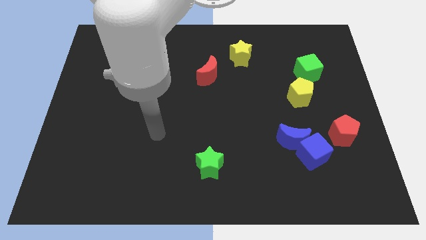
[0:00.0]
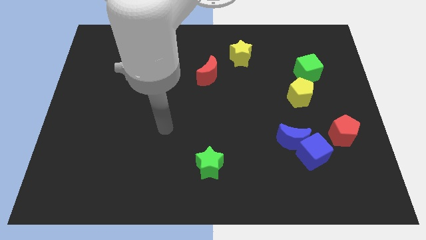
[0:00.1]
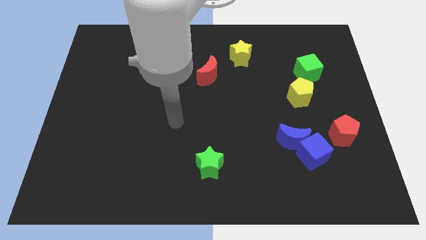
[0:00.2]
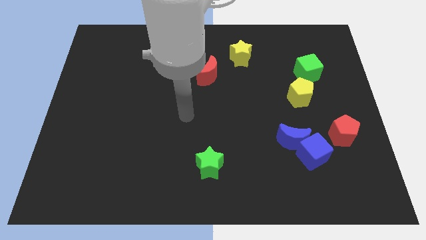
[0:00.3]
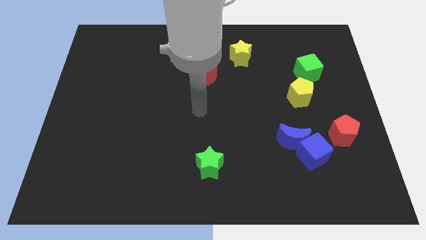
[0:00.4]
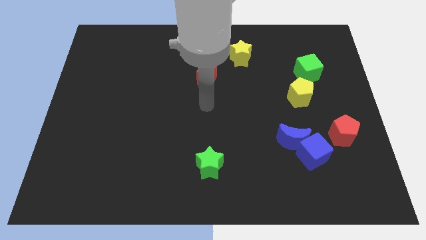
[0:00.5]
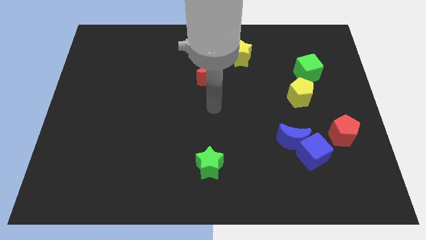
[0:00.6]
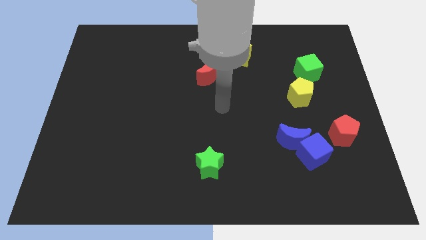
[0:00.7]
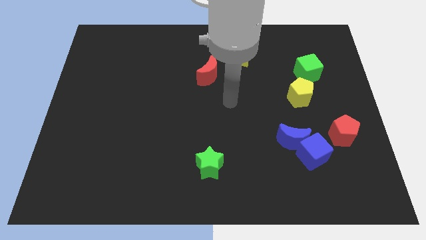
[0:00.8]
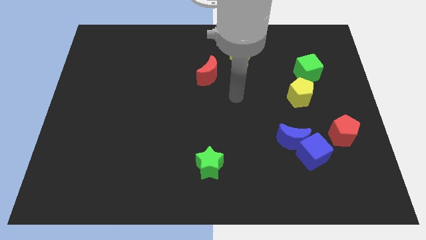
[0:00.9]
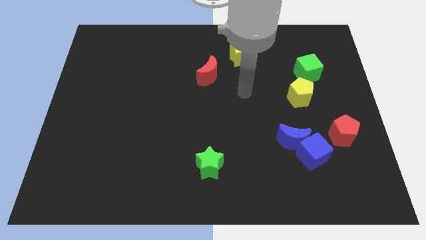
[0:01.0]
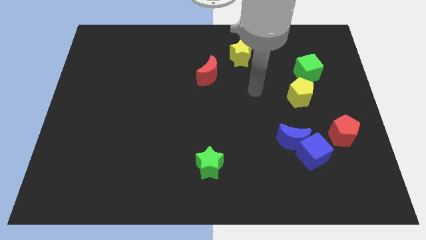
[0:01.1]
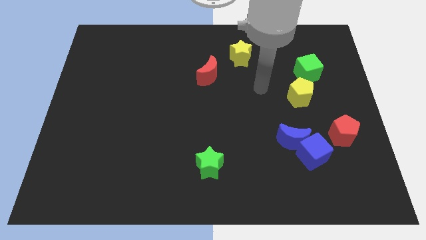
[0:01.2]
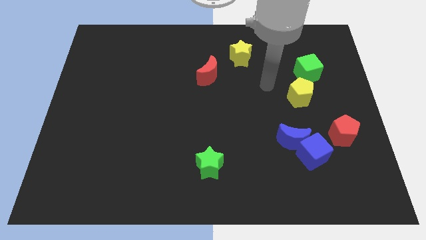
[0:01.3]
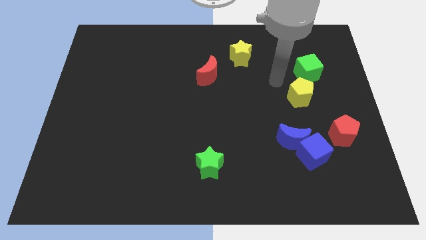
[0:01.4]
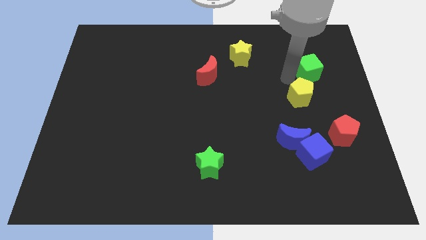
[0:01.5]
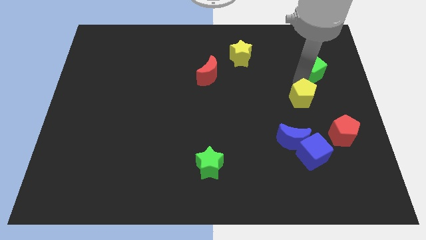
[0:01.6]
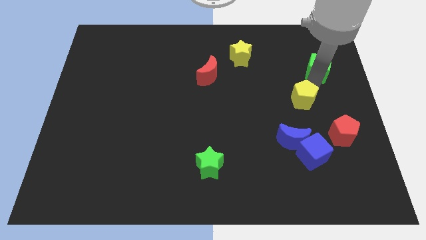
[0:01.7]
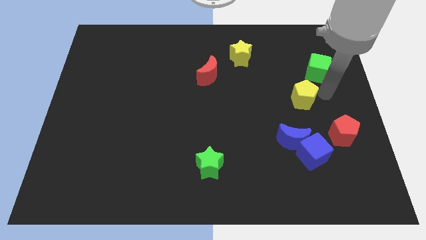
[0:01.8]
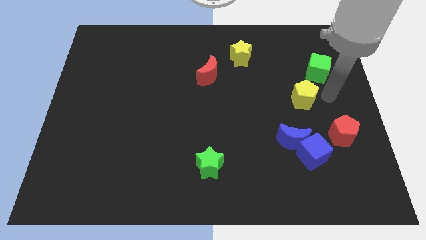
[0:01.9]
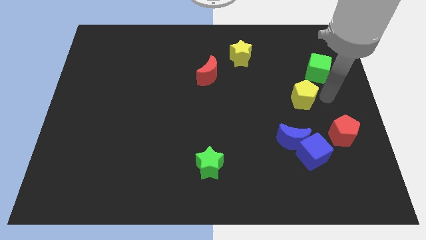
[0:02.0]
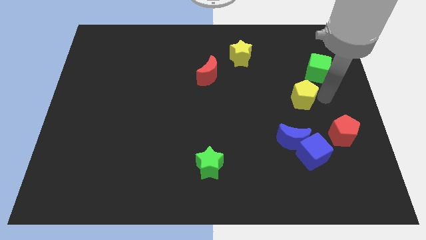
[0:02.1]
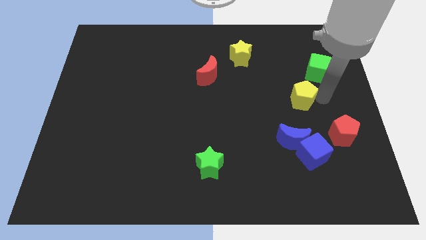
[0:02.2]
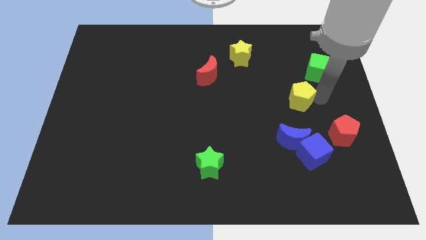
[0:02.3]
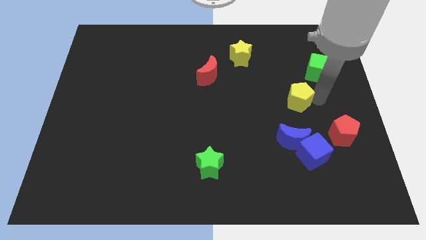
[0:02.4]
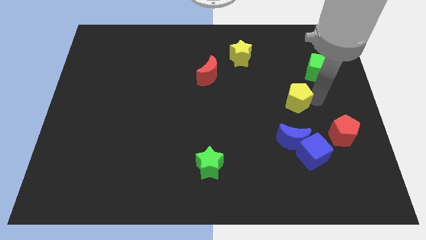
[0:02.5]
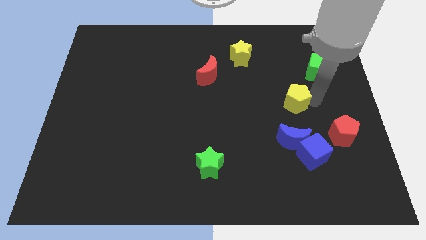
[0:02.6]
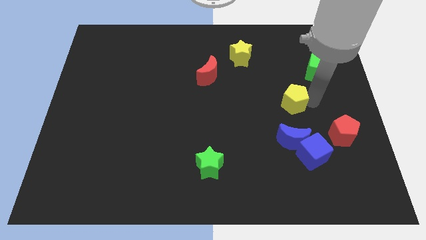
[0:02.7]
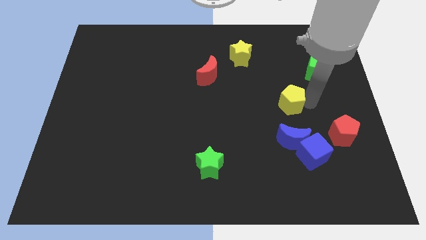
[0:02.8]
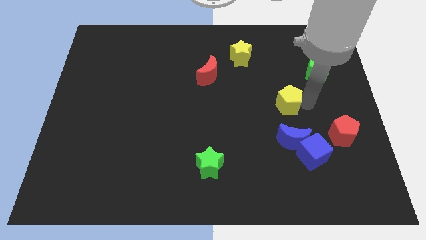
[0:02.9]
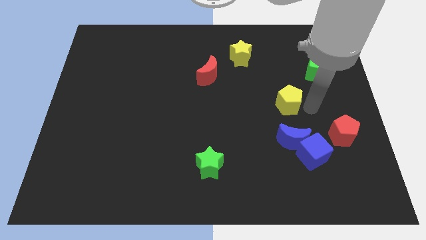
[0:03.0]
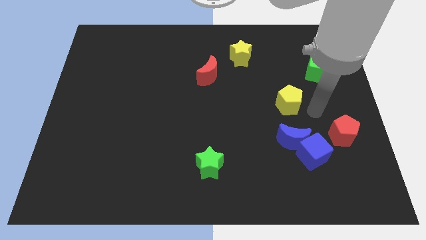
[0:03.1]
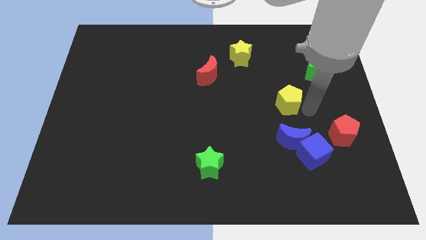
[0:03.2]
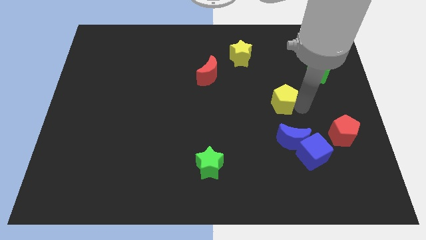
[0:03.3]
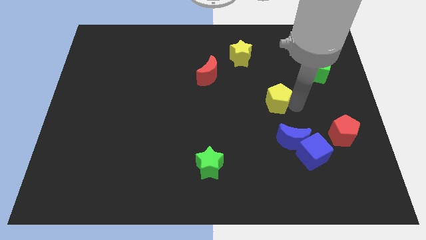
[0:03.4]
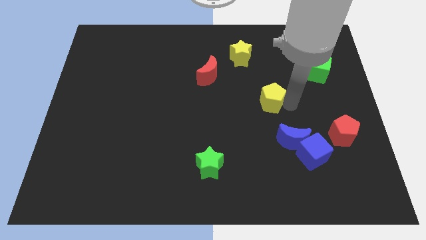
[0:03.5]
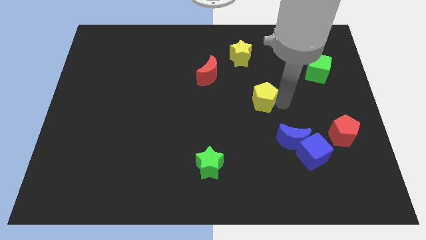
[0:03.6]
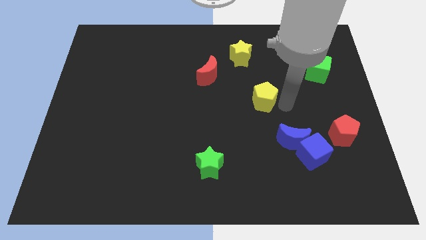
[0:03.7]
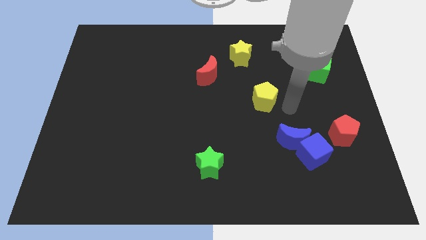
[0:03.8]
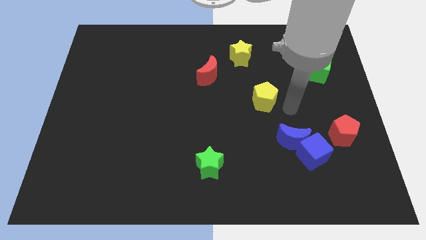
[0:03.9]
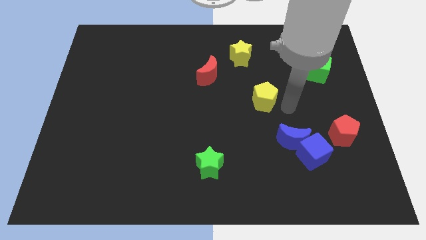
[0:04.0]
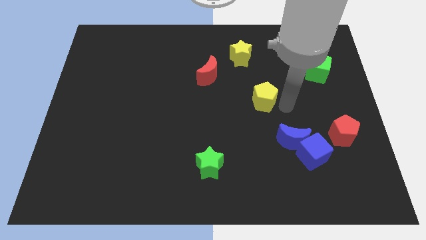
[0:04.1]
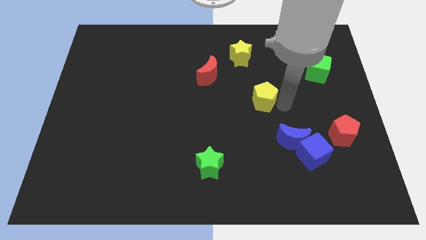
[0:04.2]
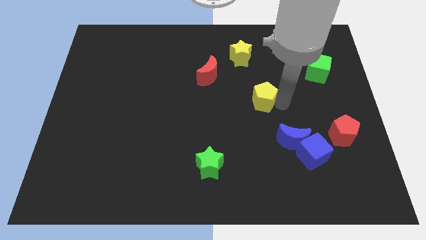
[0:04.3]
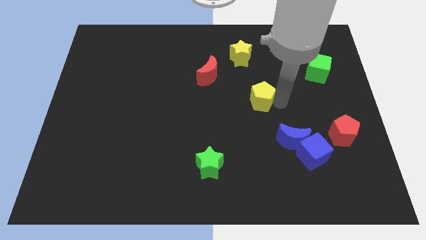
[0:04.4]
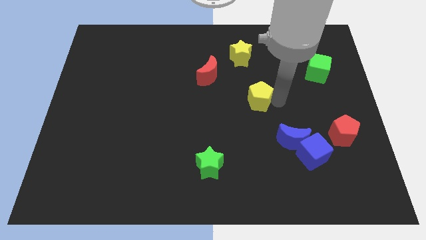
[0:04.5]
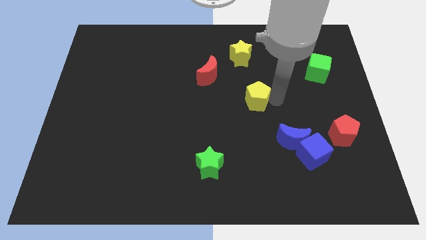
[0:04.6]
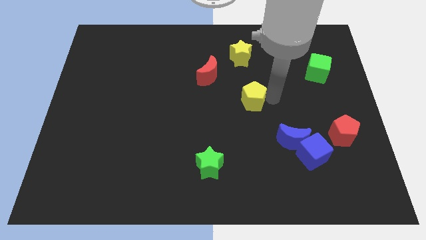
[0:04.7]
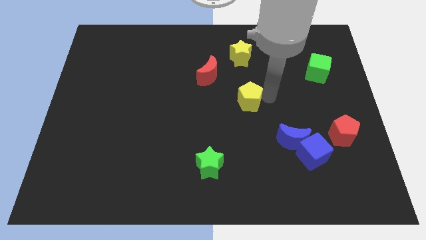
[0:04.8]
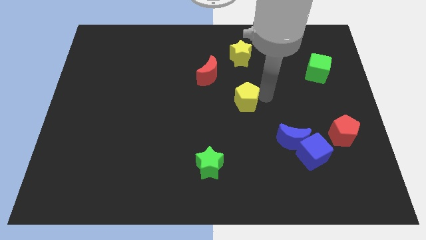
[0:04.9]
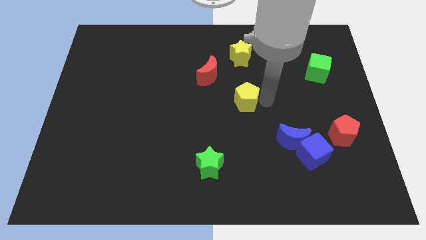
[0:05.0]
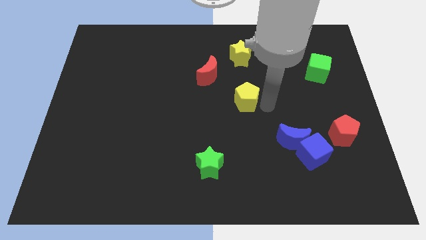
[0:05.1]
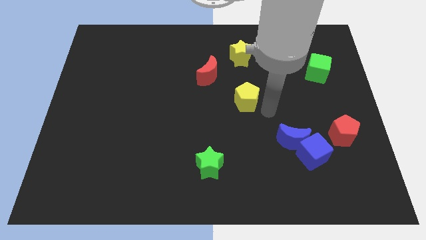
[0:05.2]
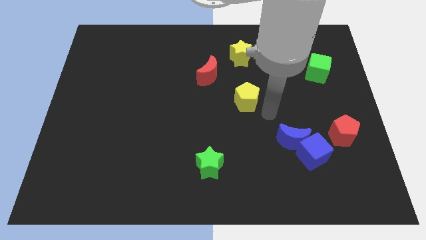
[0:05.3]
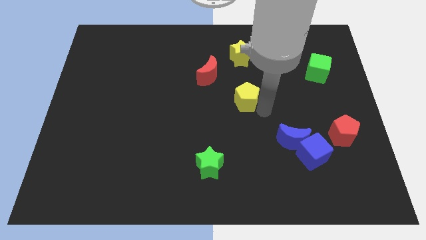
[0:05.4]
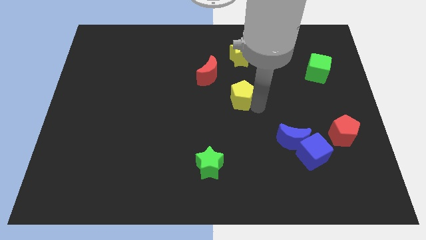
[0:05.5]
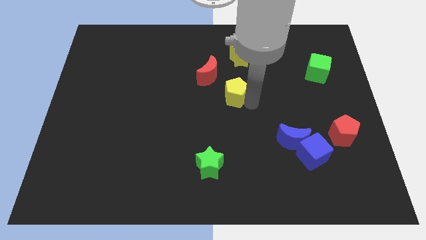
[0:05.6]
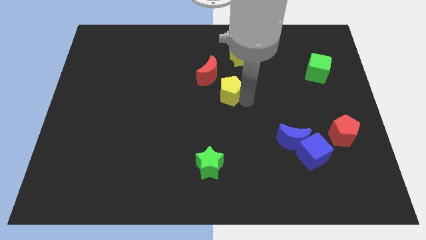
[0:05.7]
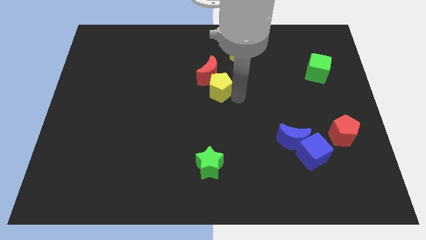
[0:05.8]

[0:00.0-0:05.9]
move the yellow pentagon to the red moon

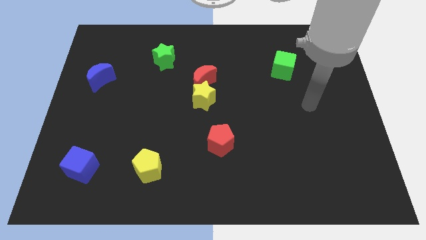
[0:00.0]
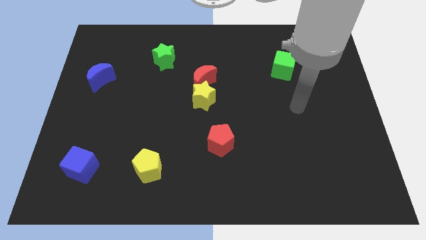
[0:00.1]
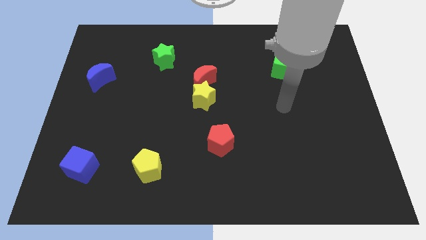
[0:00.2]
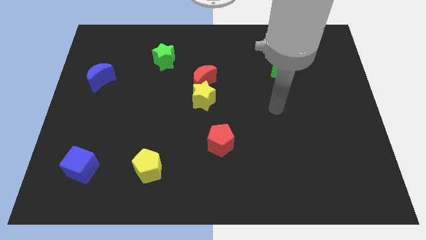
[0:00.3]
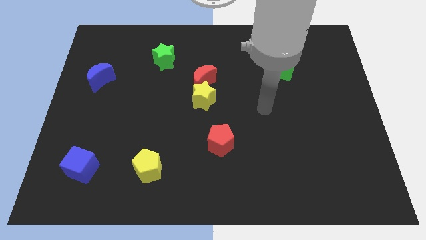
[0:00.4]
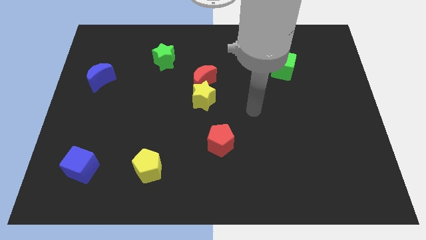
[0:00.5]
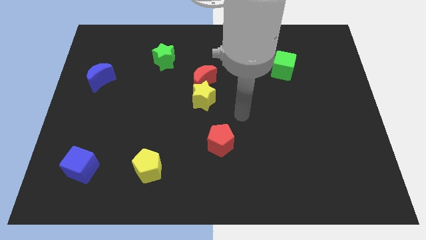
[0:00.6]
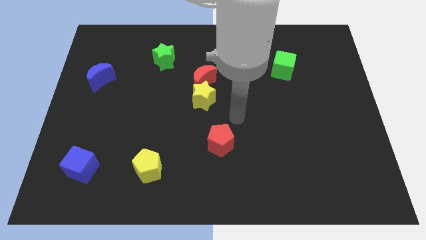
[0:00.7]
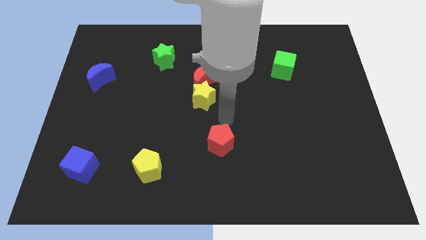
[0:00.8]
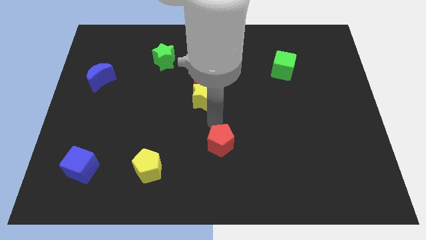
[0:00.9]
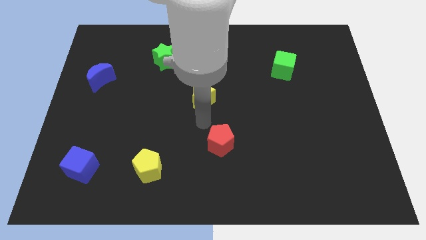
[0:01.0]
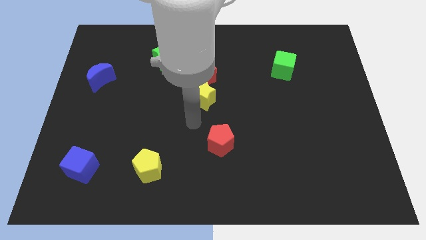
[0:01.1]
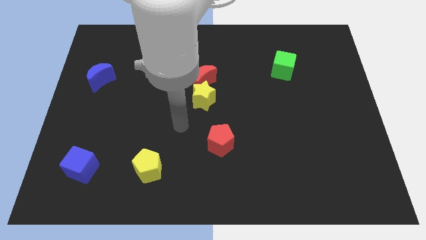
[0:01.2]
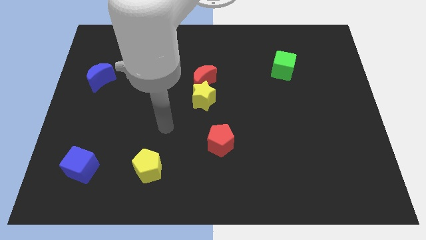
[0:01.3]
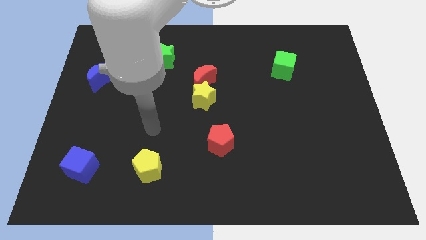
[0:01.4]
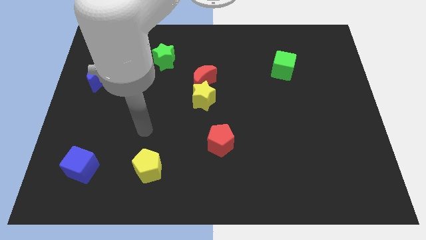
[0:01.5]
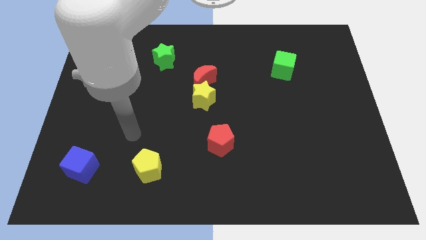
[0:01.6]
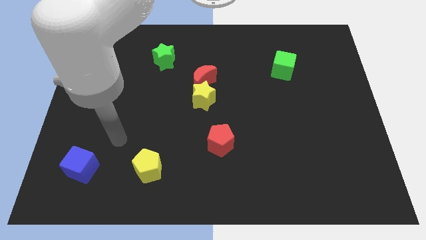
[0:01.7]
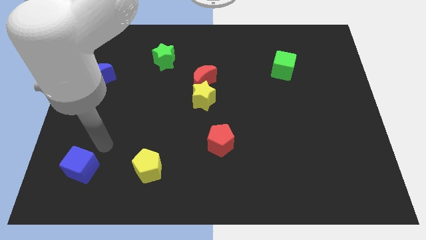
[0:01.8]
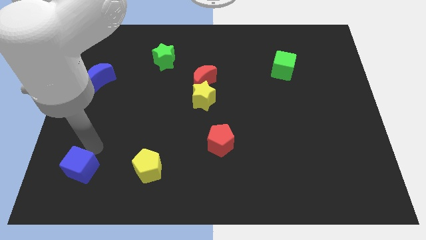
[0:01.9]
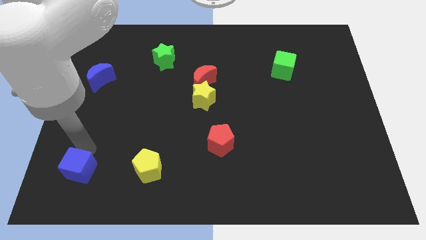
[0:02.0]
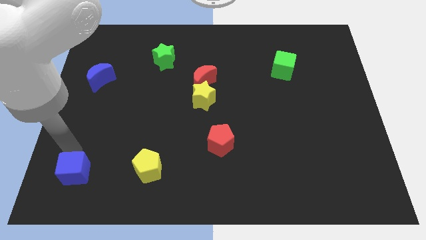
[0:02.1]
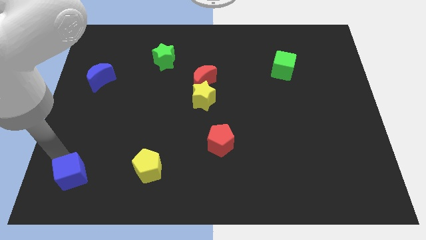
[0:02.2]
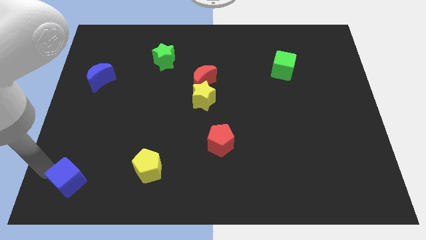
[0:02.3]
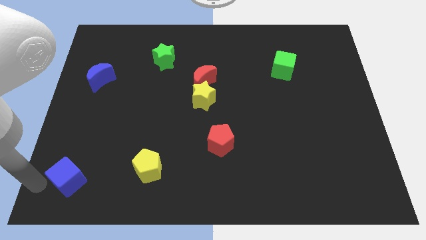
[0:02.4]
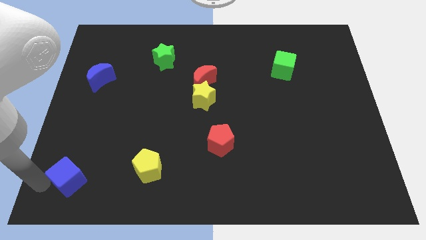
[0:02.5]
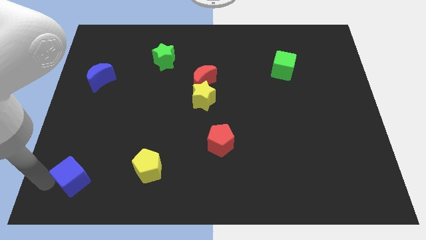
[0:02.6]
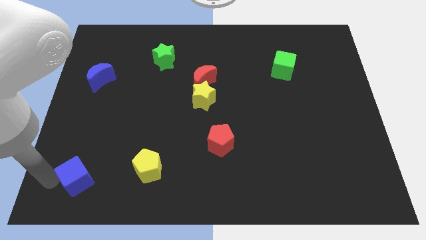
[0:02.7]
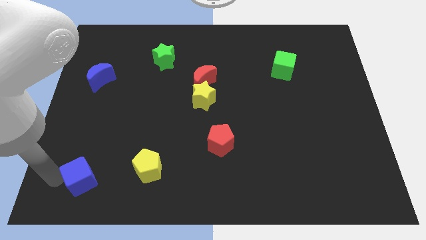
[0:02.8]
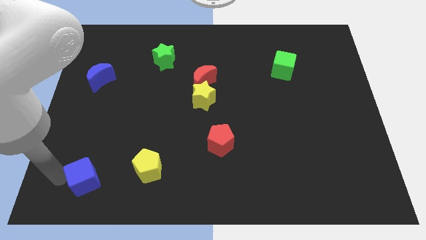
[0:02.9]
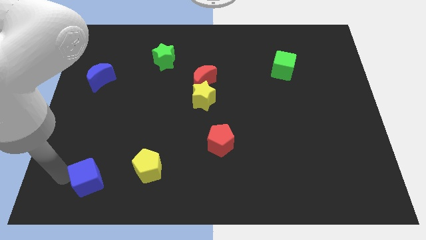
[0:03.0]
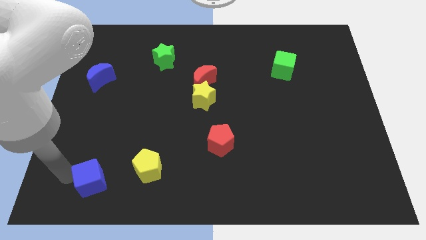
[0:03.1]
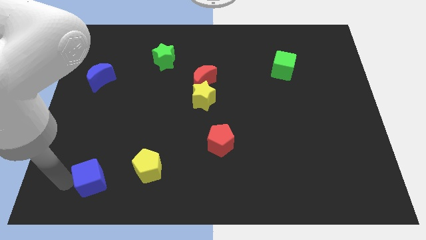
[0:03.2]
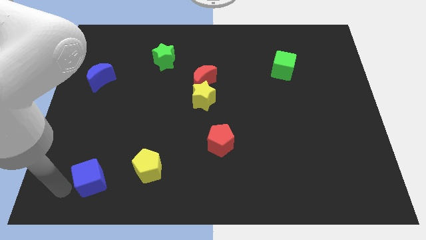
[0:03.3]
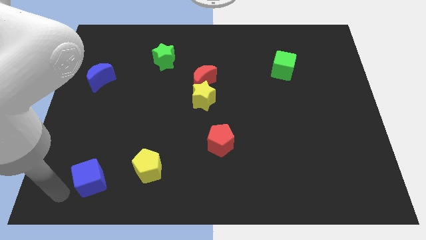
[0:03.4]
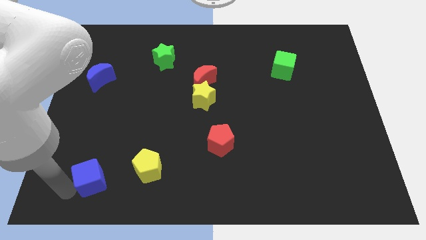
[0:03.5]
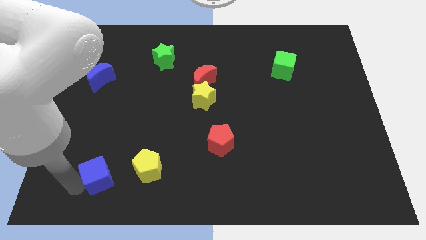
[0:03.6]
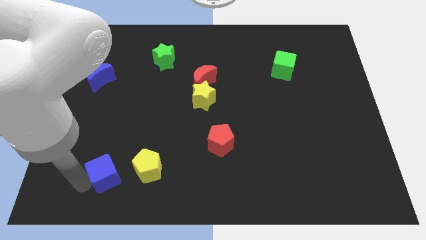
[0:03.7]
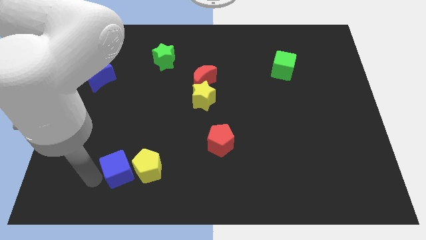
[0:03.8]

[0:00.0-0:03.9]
slide the blue cube to the yellow pentagon
